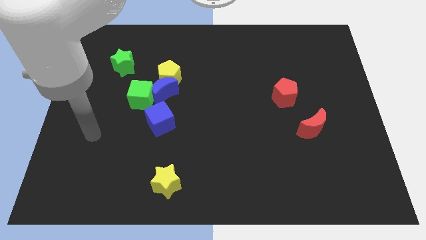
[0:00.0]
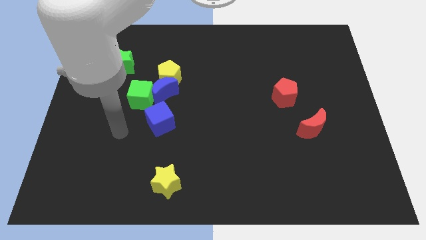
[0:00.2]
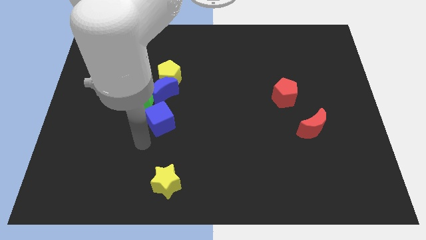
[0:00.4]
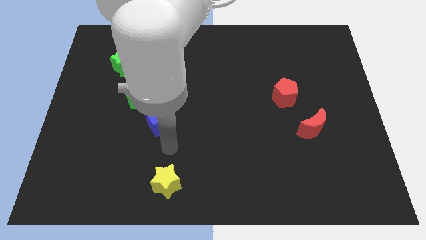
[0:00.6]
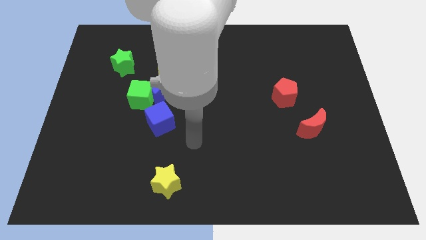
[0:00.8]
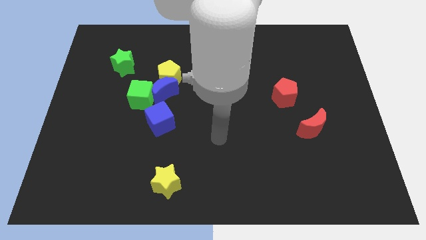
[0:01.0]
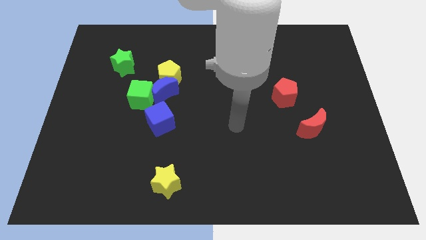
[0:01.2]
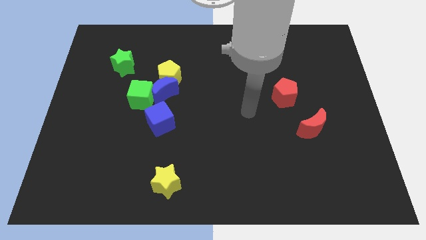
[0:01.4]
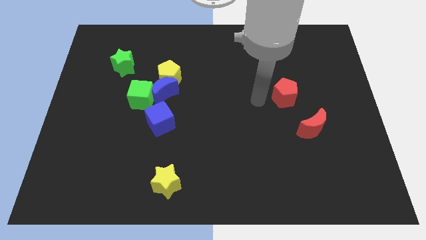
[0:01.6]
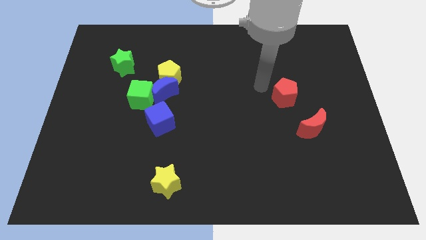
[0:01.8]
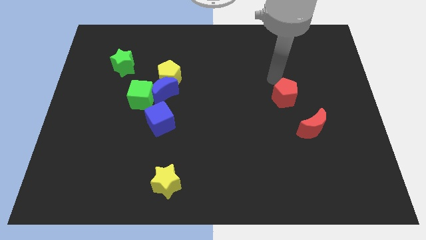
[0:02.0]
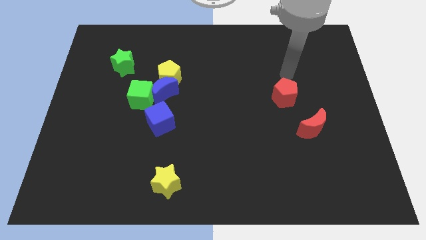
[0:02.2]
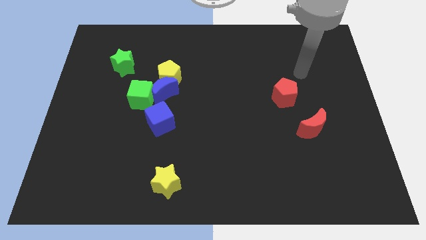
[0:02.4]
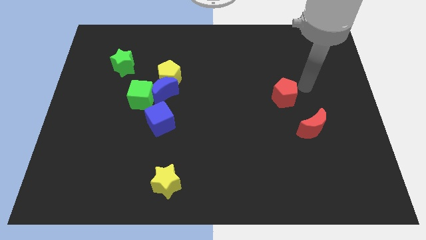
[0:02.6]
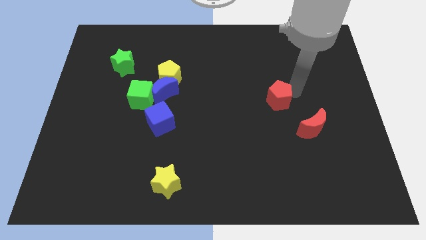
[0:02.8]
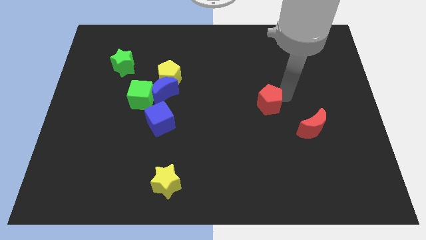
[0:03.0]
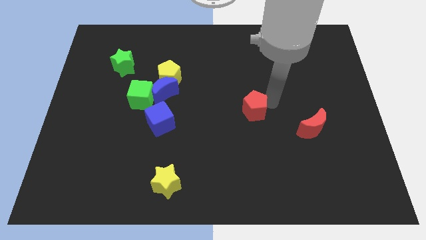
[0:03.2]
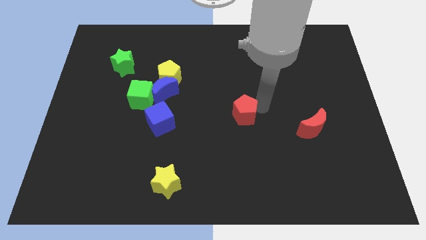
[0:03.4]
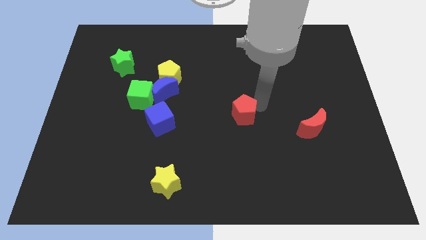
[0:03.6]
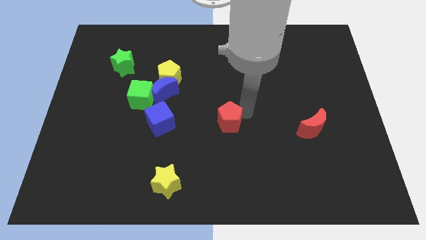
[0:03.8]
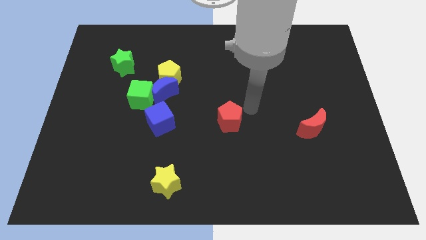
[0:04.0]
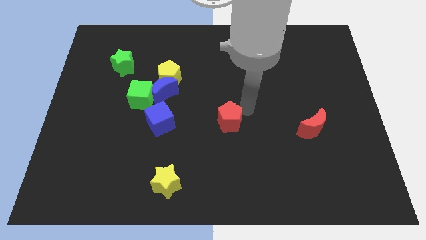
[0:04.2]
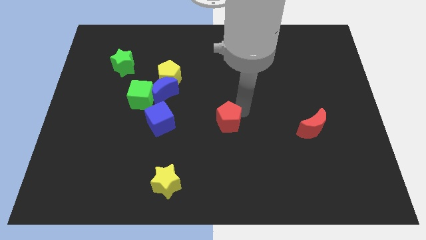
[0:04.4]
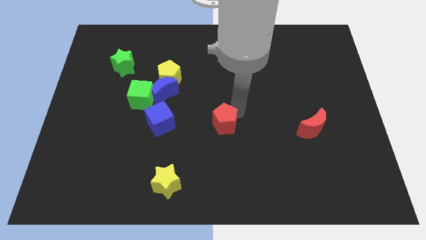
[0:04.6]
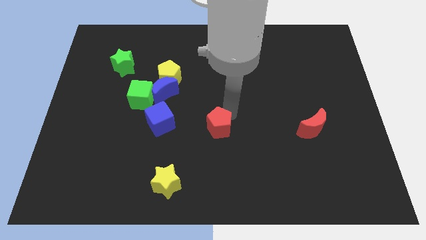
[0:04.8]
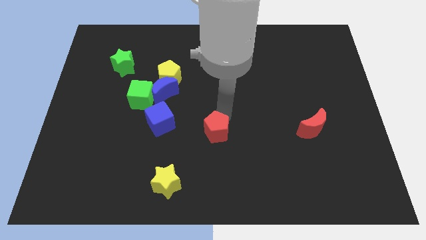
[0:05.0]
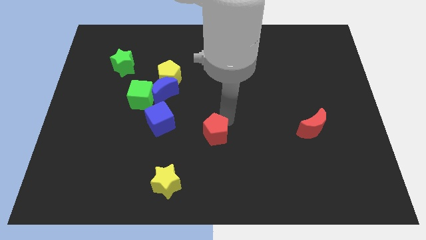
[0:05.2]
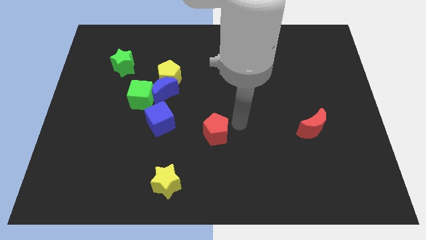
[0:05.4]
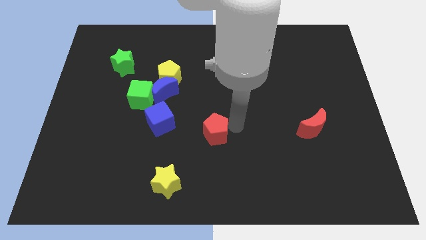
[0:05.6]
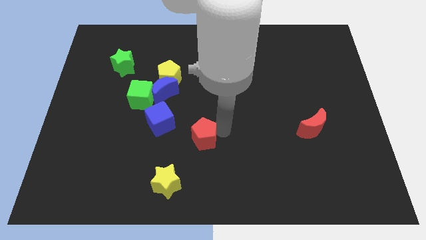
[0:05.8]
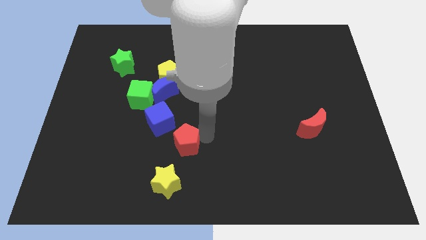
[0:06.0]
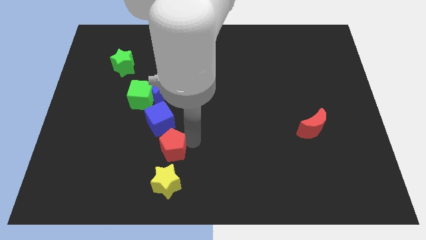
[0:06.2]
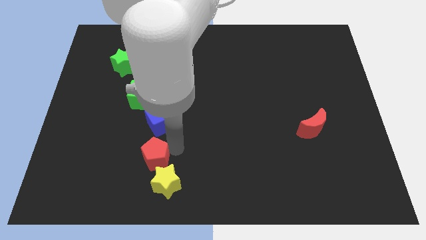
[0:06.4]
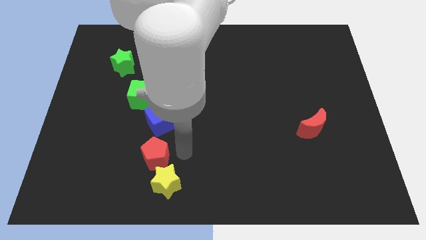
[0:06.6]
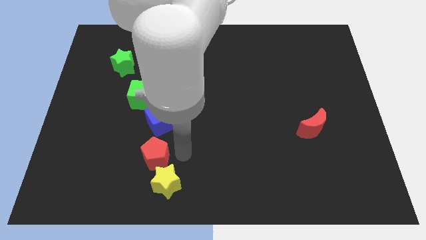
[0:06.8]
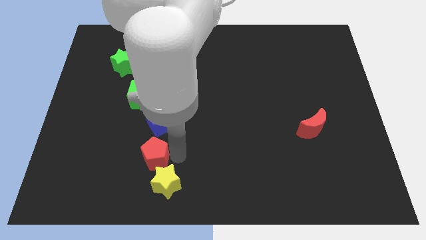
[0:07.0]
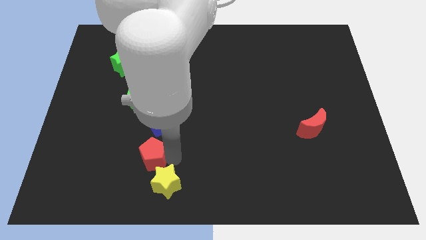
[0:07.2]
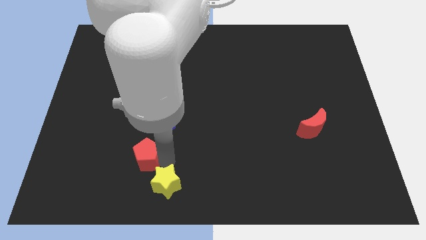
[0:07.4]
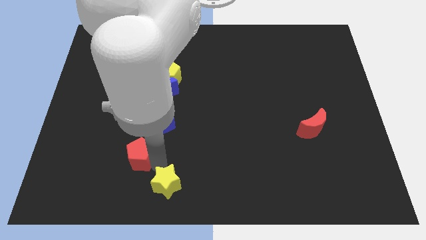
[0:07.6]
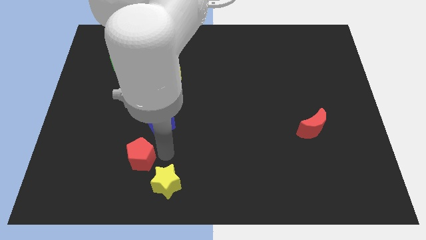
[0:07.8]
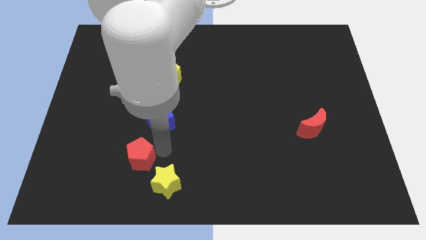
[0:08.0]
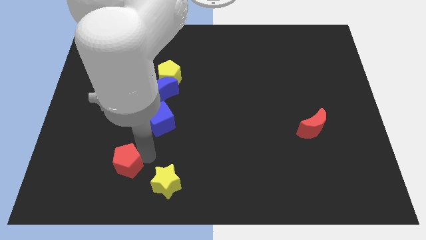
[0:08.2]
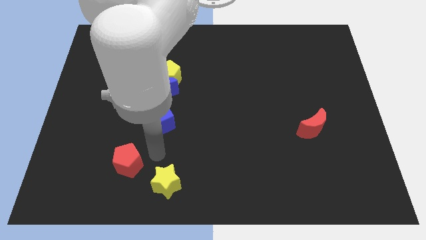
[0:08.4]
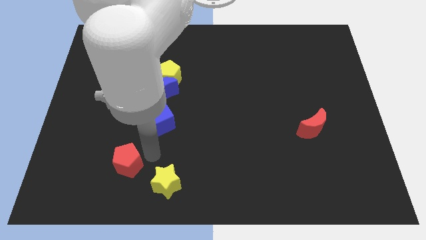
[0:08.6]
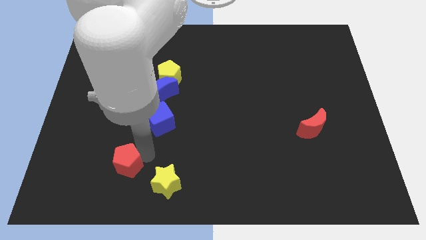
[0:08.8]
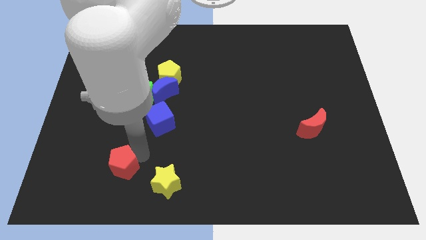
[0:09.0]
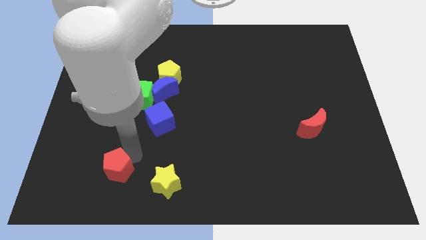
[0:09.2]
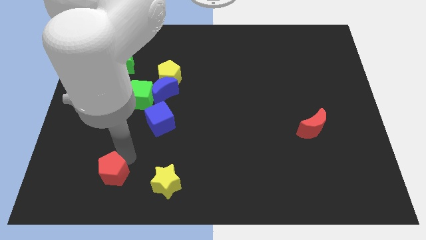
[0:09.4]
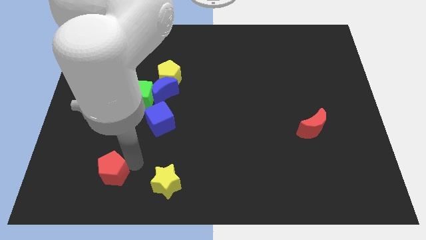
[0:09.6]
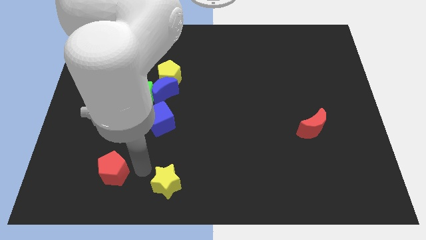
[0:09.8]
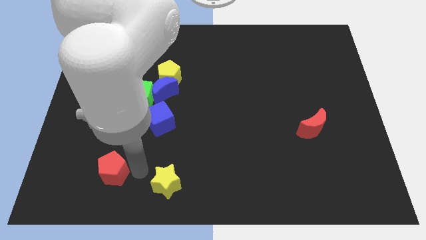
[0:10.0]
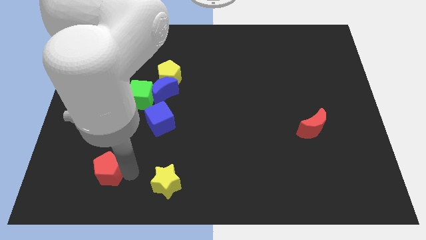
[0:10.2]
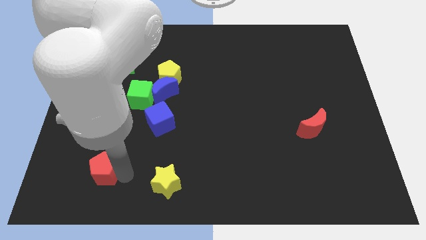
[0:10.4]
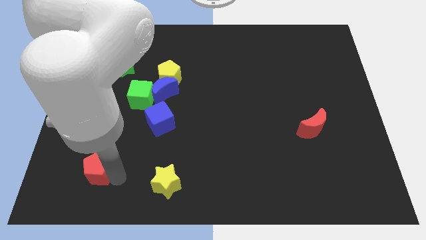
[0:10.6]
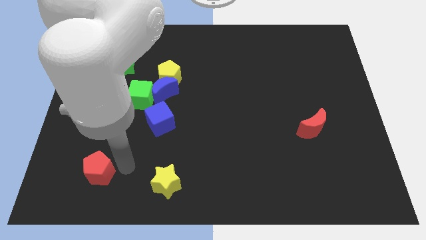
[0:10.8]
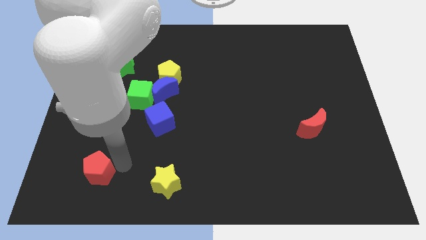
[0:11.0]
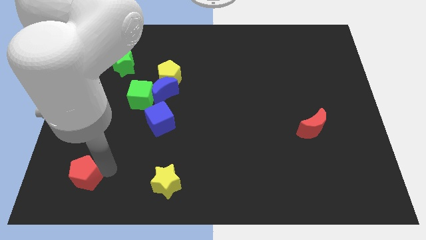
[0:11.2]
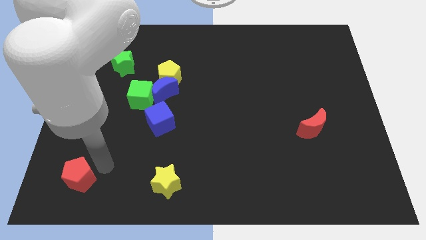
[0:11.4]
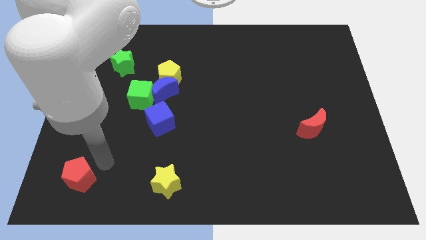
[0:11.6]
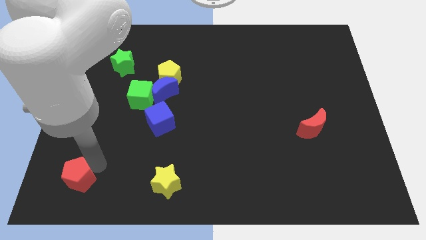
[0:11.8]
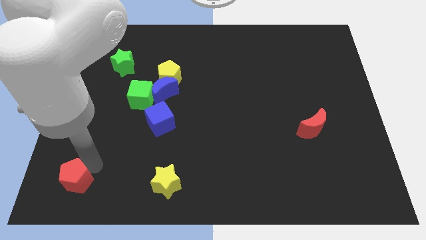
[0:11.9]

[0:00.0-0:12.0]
push the red pentagon to the bottom left corner
